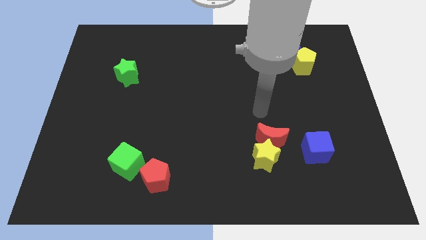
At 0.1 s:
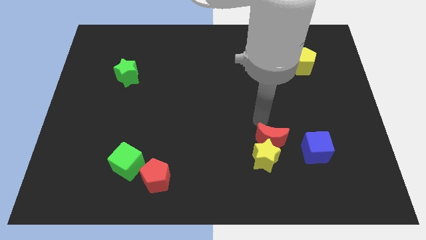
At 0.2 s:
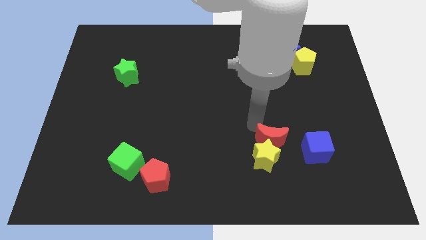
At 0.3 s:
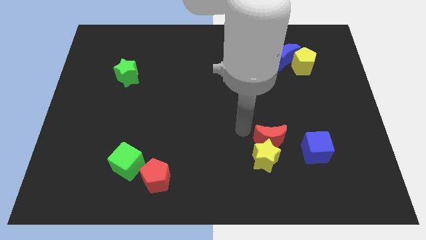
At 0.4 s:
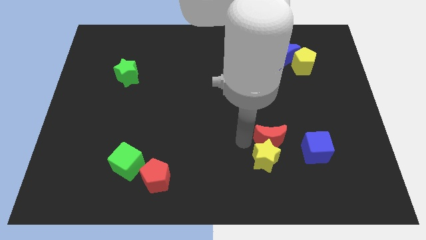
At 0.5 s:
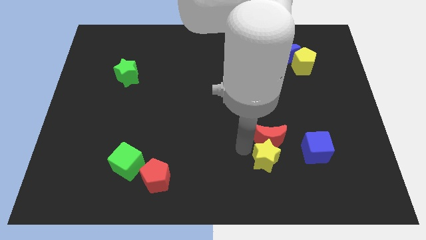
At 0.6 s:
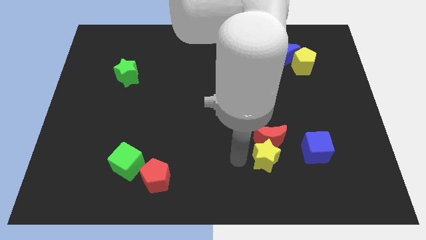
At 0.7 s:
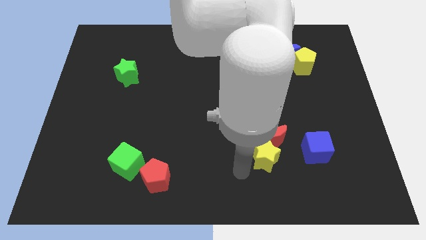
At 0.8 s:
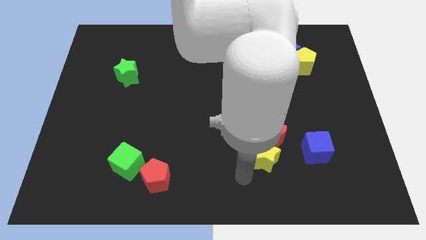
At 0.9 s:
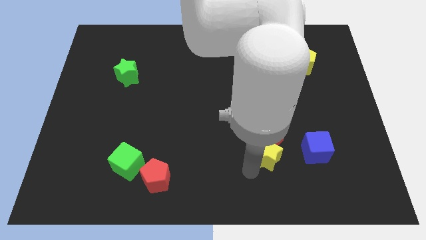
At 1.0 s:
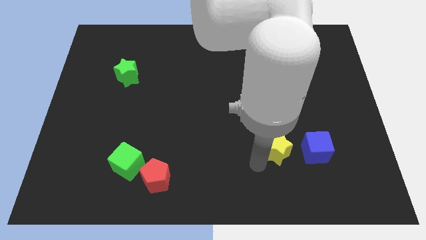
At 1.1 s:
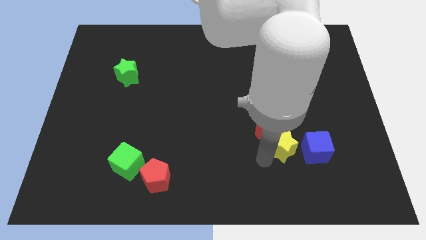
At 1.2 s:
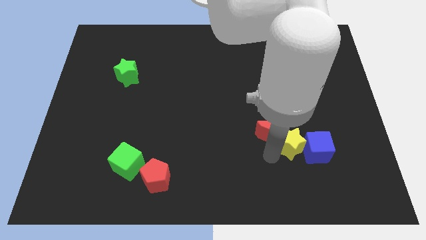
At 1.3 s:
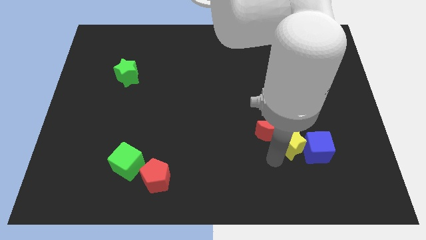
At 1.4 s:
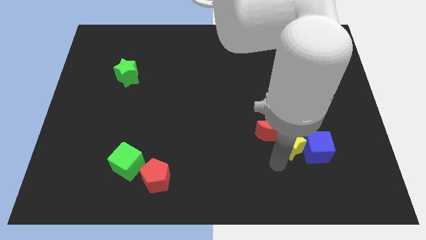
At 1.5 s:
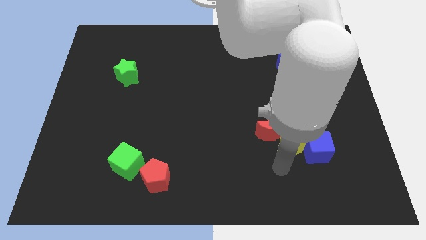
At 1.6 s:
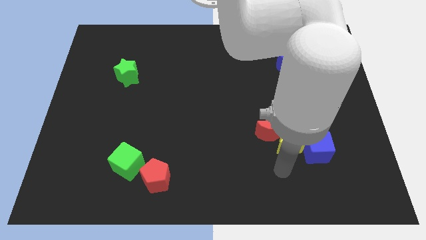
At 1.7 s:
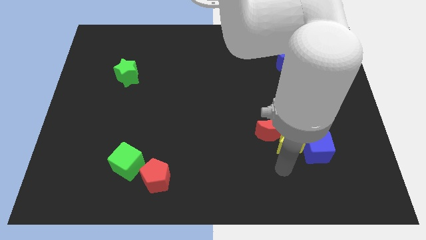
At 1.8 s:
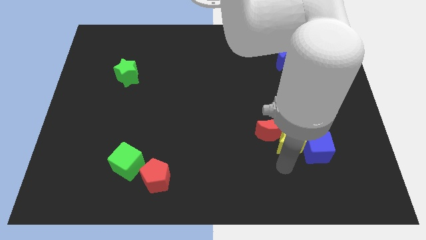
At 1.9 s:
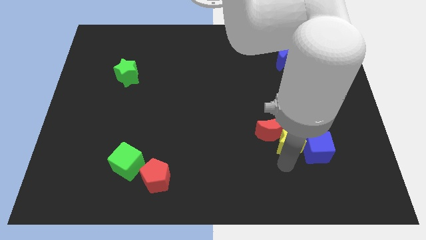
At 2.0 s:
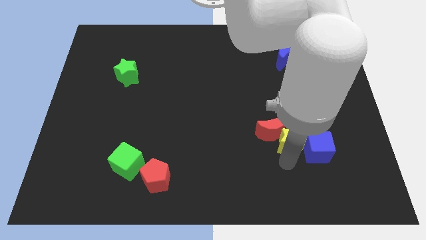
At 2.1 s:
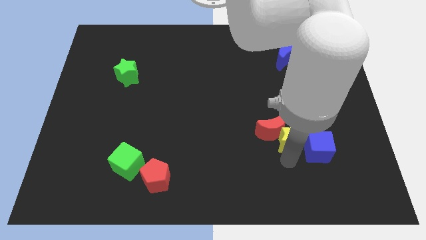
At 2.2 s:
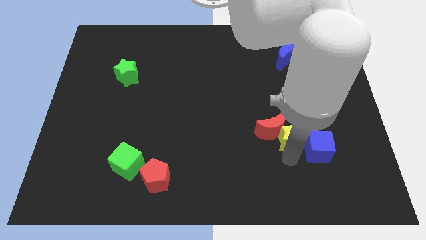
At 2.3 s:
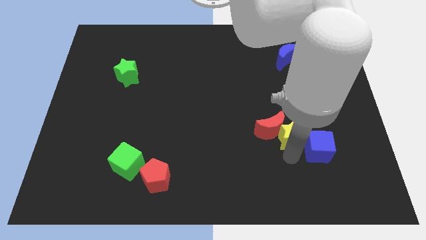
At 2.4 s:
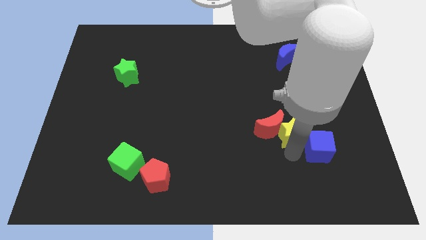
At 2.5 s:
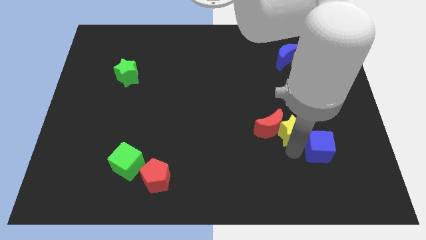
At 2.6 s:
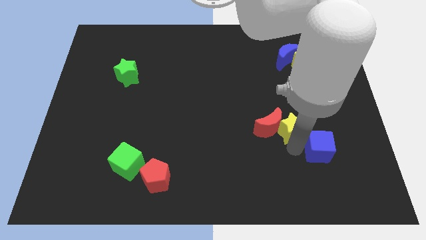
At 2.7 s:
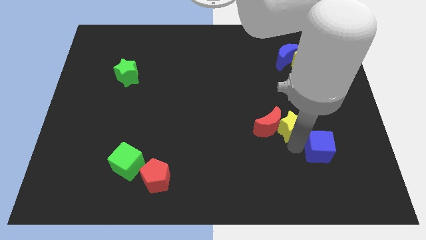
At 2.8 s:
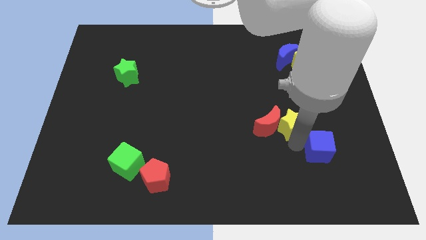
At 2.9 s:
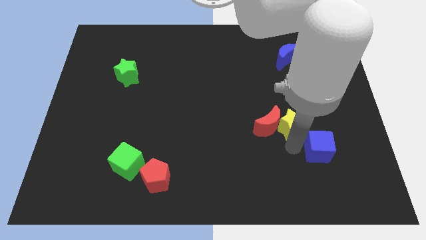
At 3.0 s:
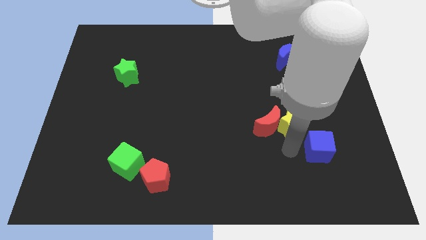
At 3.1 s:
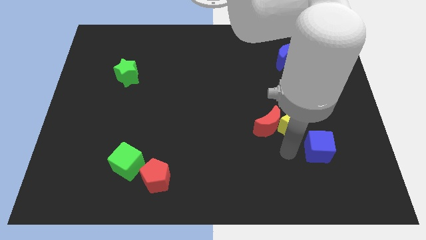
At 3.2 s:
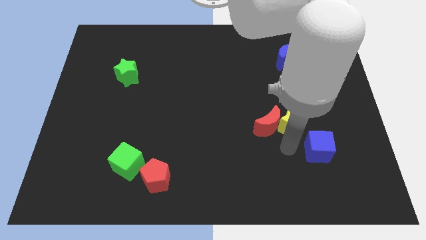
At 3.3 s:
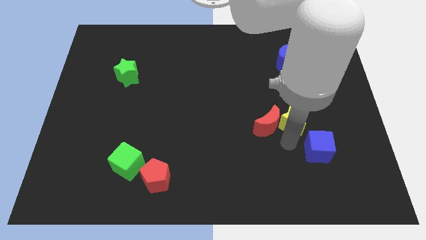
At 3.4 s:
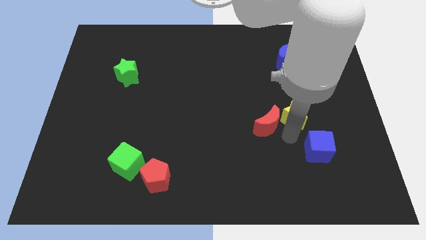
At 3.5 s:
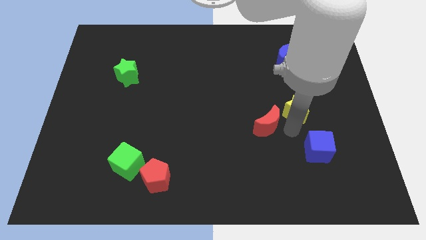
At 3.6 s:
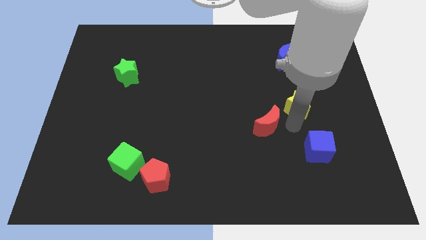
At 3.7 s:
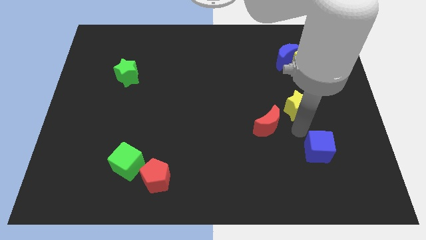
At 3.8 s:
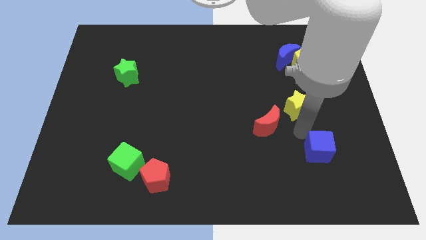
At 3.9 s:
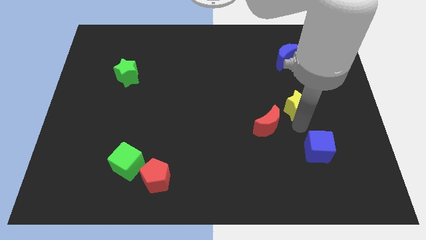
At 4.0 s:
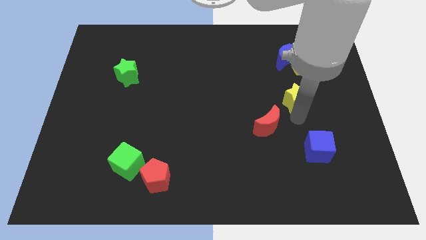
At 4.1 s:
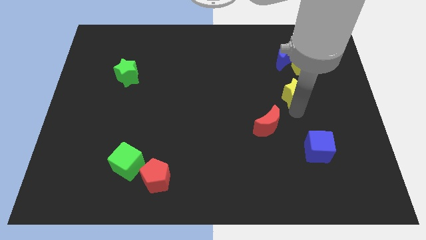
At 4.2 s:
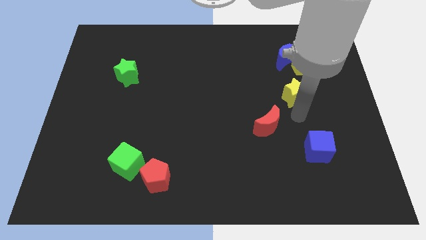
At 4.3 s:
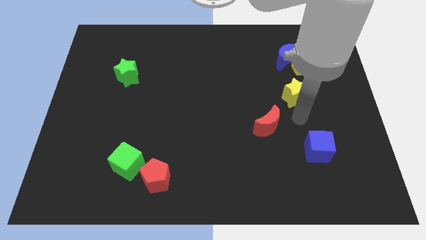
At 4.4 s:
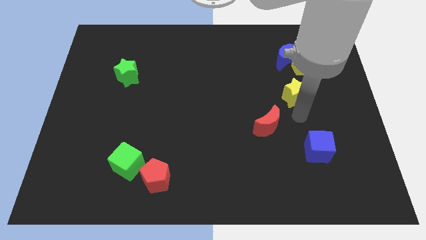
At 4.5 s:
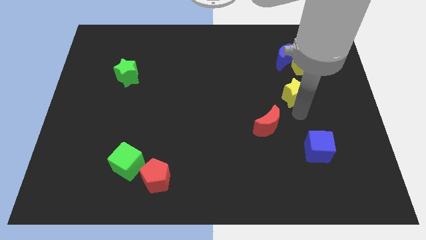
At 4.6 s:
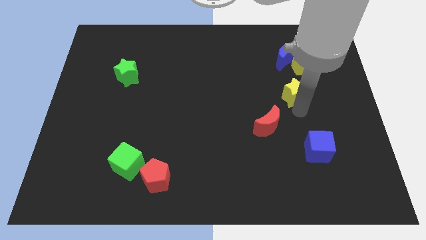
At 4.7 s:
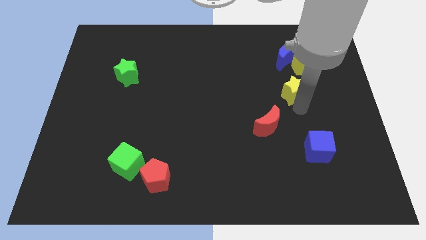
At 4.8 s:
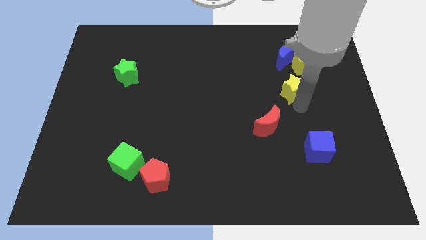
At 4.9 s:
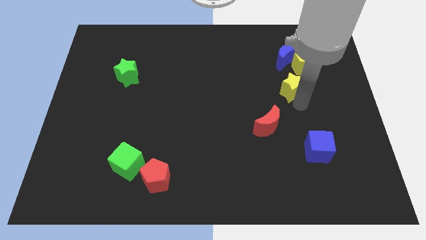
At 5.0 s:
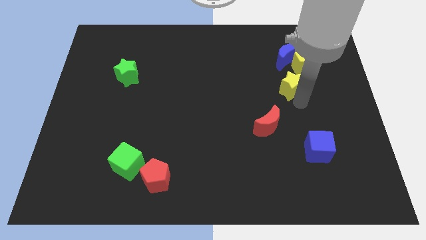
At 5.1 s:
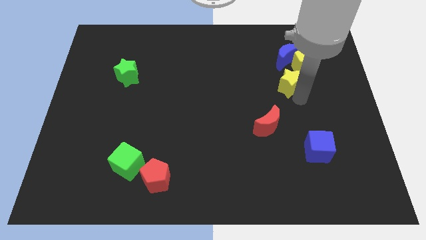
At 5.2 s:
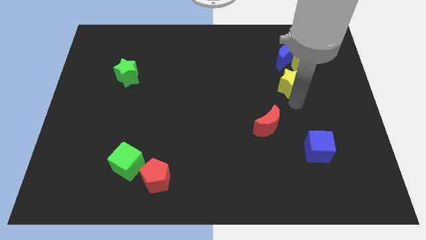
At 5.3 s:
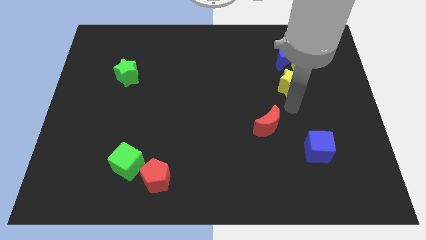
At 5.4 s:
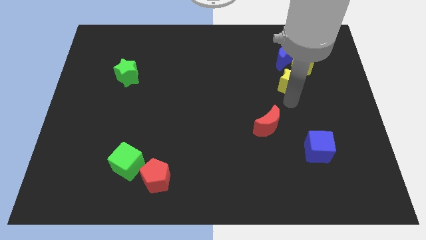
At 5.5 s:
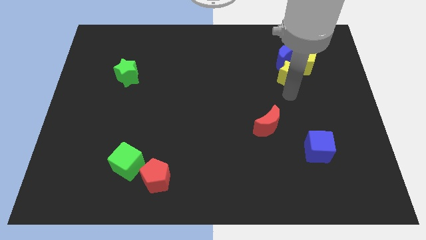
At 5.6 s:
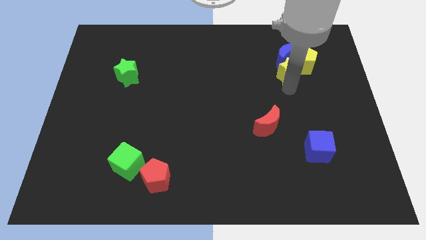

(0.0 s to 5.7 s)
move the yellow star next to the blue moon

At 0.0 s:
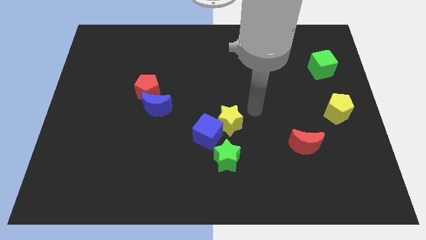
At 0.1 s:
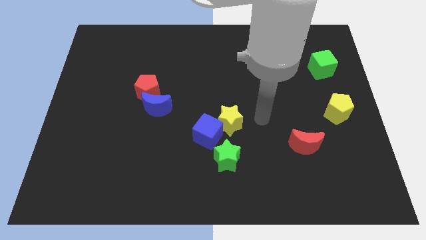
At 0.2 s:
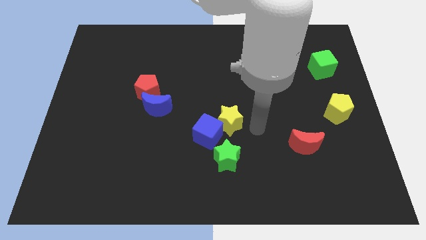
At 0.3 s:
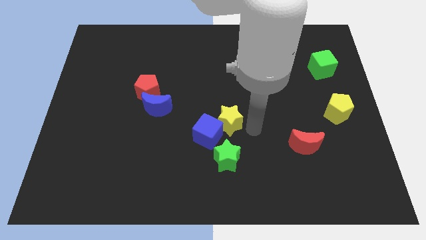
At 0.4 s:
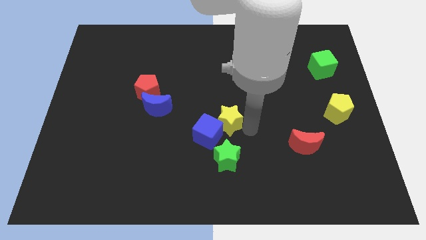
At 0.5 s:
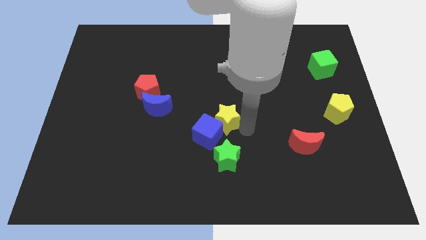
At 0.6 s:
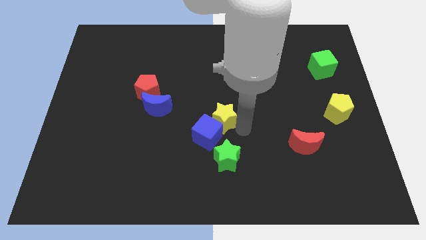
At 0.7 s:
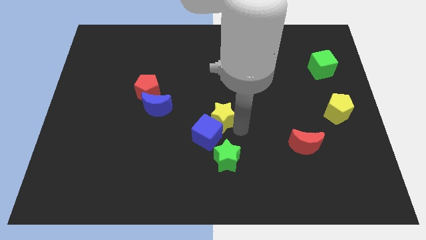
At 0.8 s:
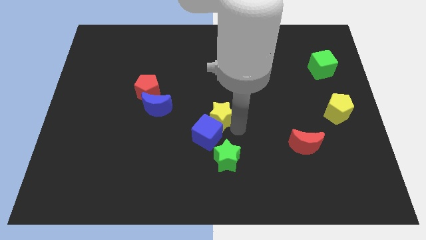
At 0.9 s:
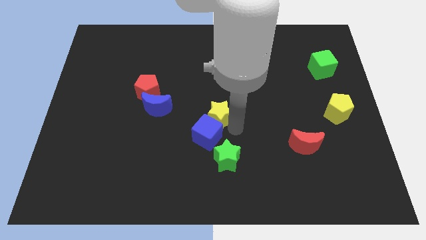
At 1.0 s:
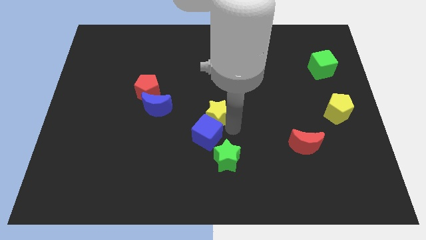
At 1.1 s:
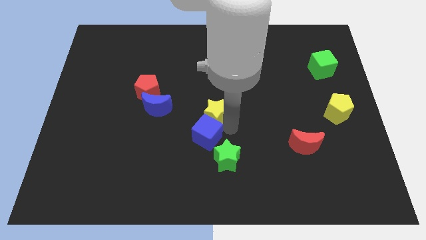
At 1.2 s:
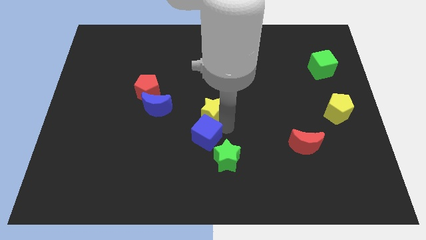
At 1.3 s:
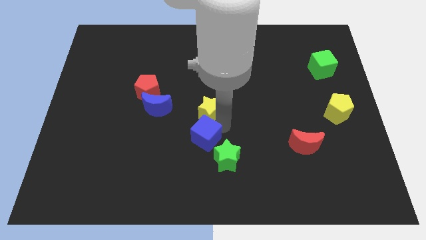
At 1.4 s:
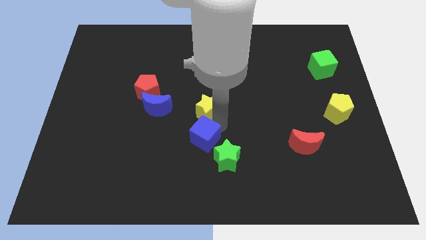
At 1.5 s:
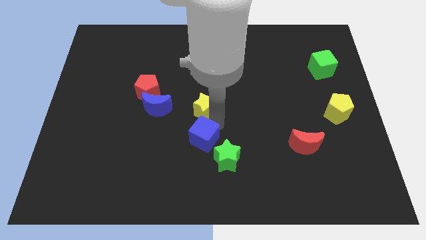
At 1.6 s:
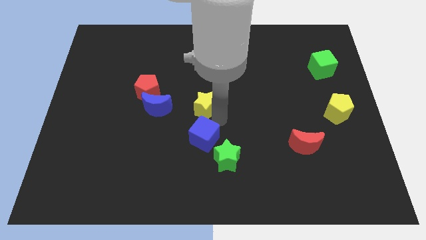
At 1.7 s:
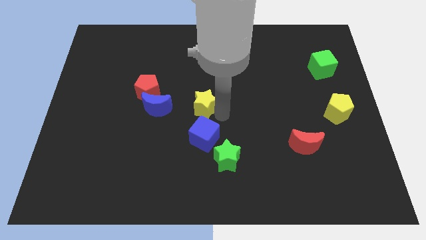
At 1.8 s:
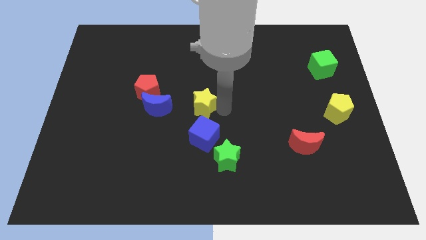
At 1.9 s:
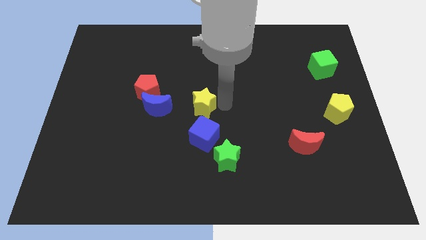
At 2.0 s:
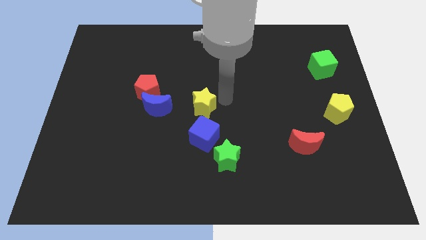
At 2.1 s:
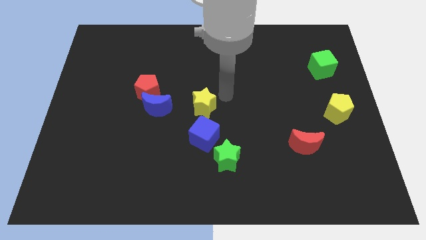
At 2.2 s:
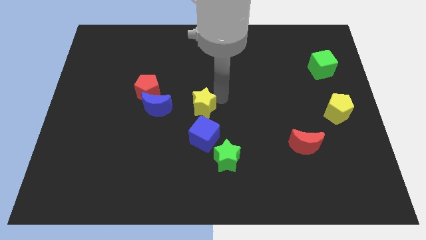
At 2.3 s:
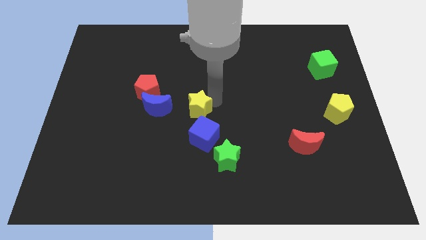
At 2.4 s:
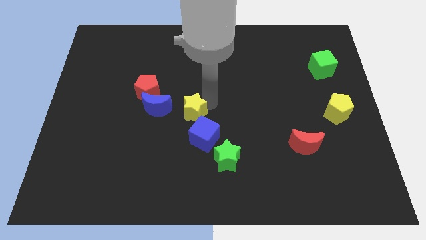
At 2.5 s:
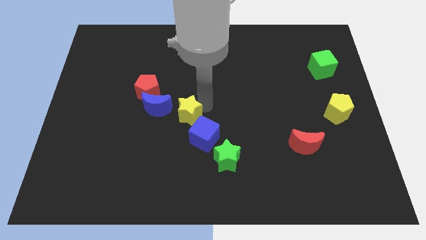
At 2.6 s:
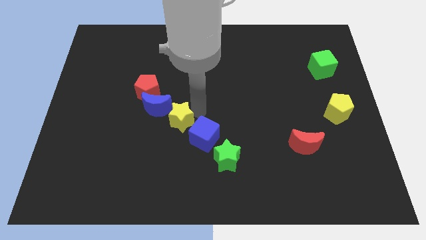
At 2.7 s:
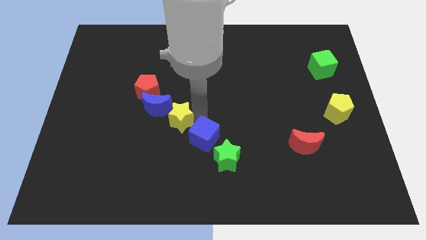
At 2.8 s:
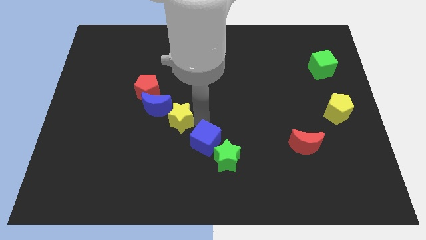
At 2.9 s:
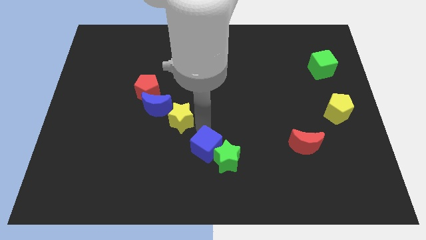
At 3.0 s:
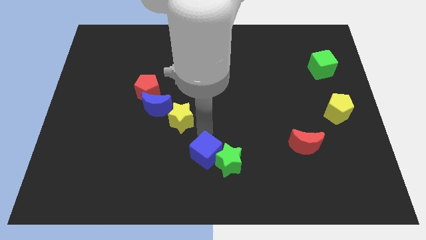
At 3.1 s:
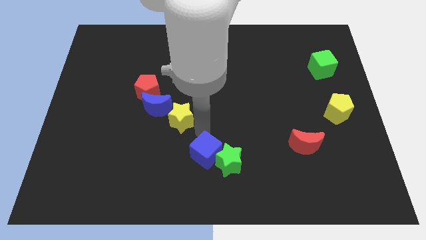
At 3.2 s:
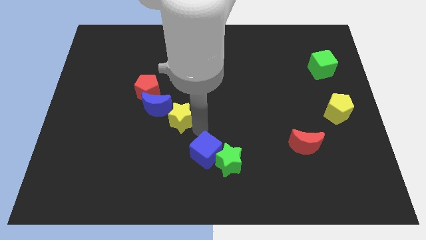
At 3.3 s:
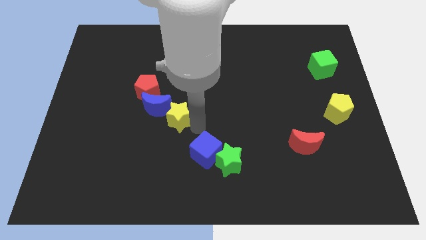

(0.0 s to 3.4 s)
put the yellow star towards the blue moon
